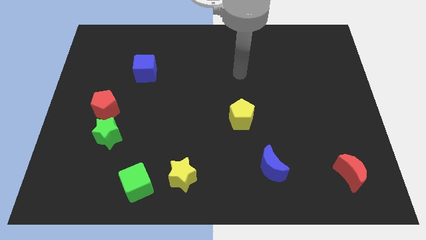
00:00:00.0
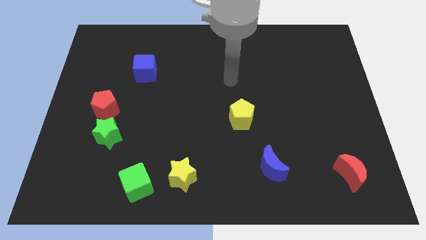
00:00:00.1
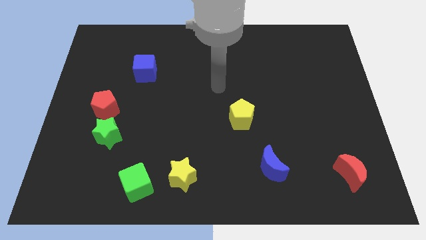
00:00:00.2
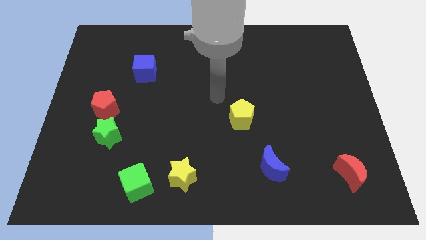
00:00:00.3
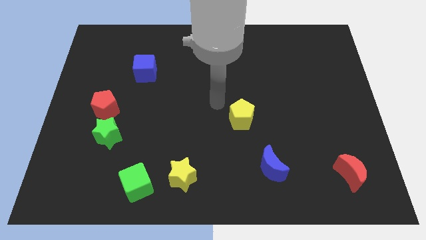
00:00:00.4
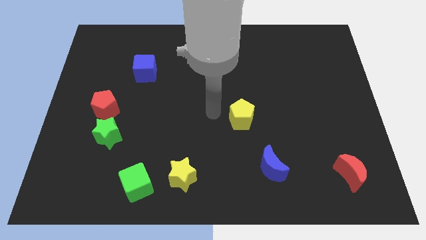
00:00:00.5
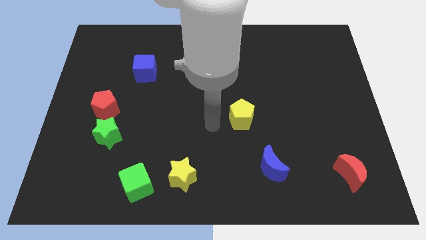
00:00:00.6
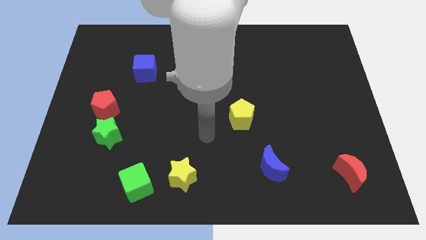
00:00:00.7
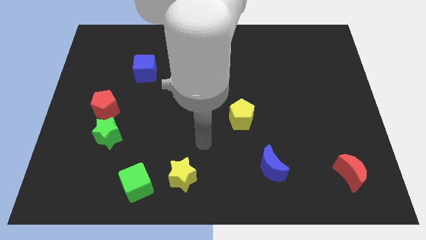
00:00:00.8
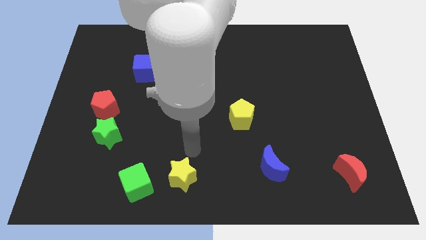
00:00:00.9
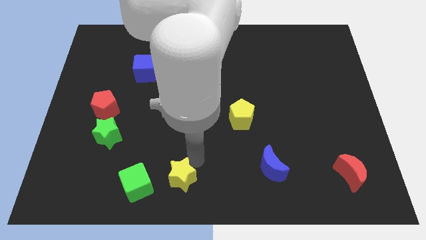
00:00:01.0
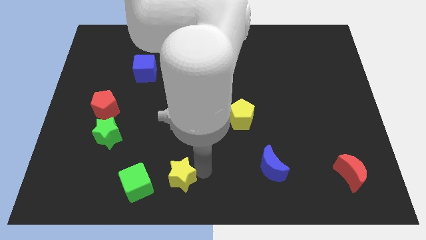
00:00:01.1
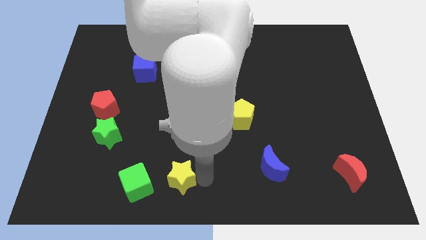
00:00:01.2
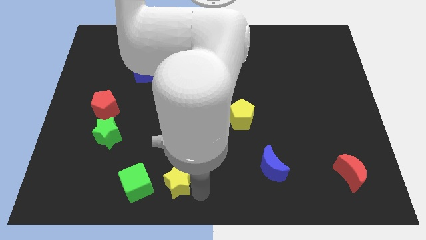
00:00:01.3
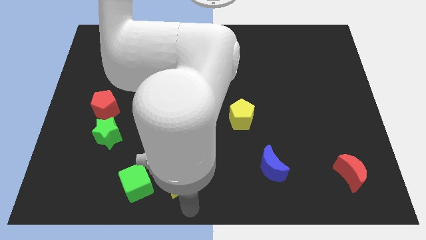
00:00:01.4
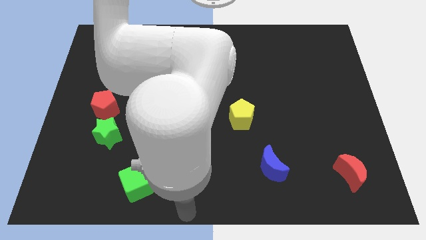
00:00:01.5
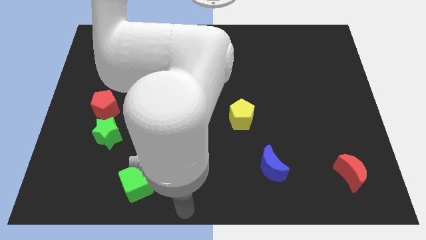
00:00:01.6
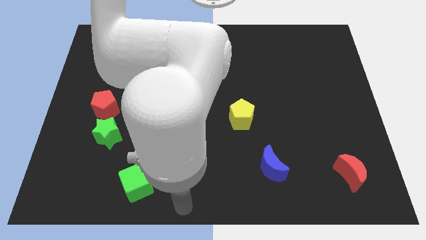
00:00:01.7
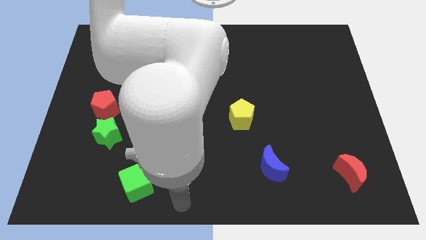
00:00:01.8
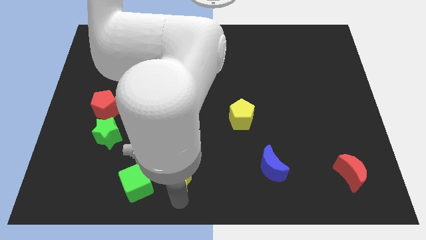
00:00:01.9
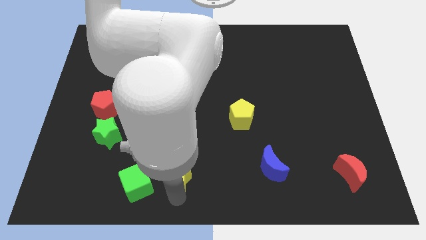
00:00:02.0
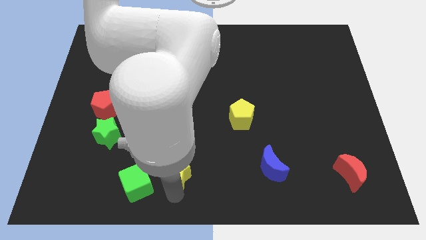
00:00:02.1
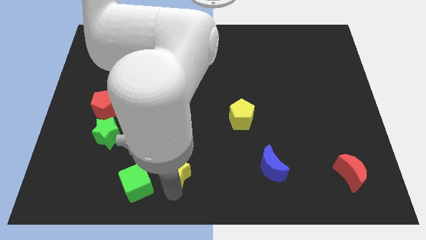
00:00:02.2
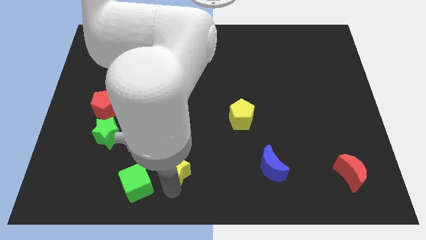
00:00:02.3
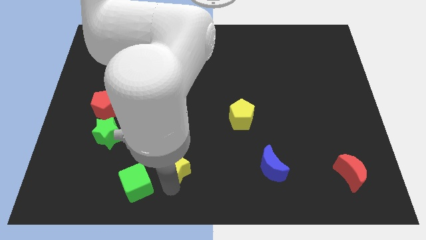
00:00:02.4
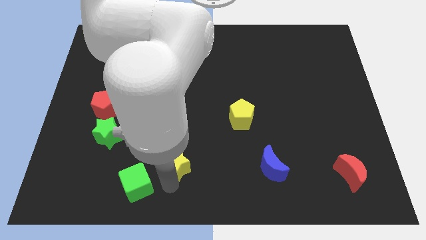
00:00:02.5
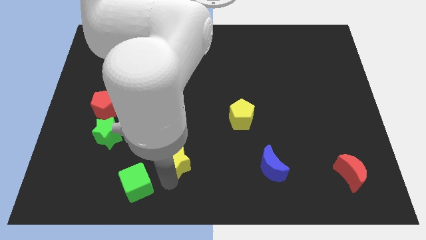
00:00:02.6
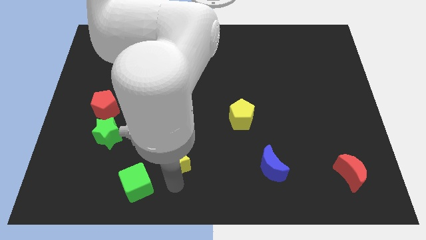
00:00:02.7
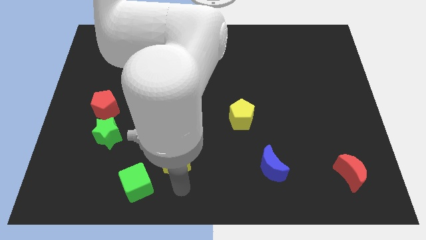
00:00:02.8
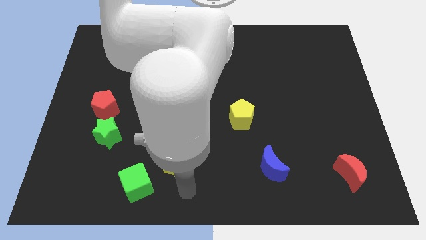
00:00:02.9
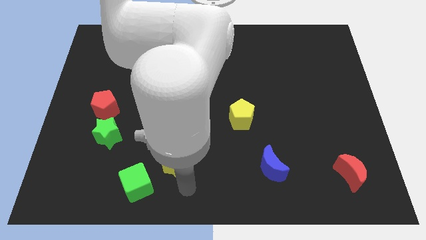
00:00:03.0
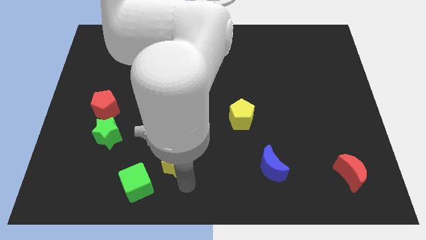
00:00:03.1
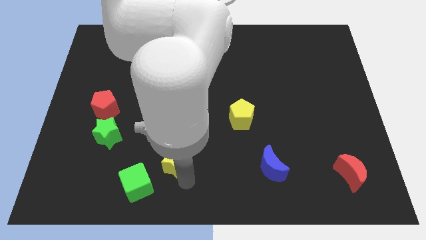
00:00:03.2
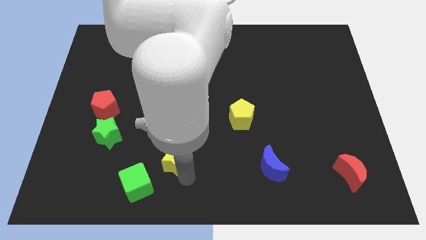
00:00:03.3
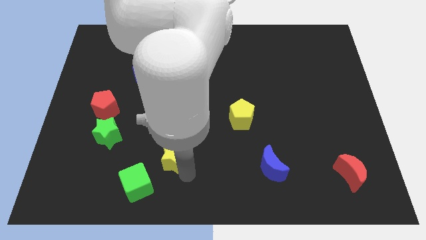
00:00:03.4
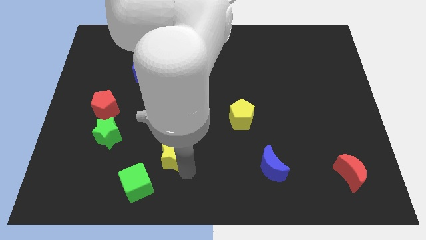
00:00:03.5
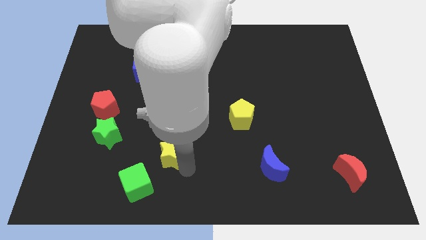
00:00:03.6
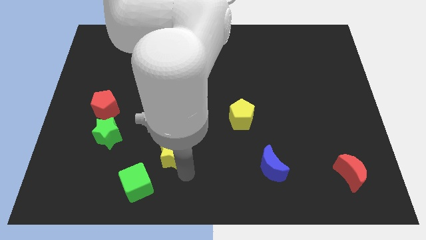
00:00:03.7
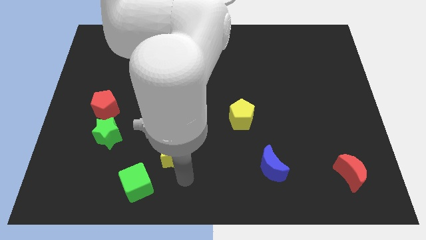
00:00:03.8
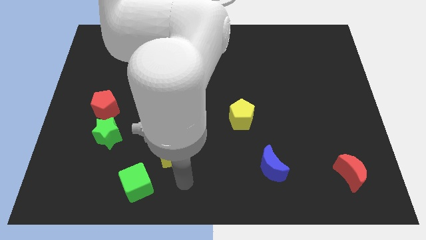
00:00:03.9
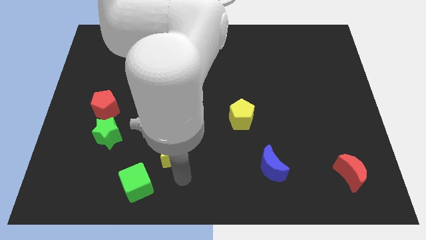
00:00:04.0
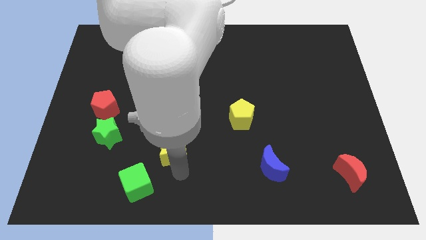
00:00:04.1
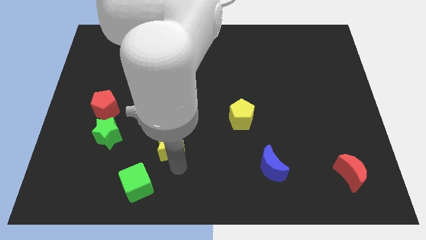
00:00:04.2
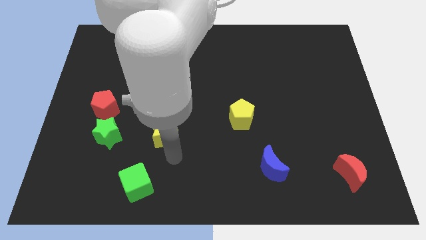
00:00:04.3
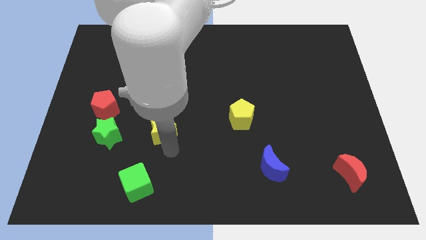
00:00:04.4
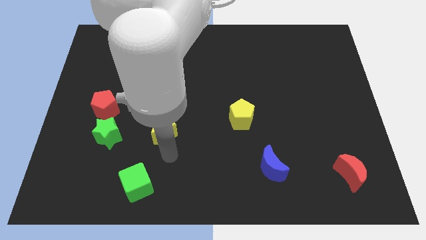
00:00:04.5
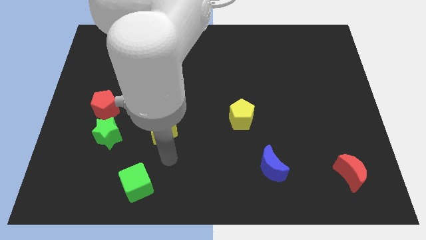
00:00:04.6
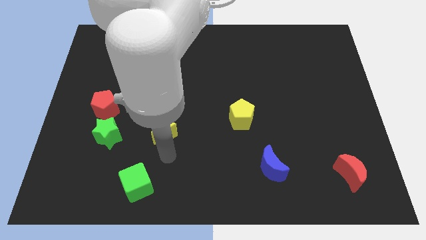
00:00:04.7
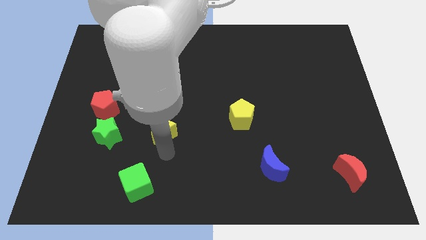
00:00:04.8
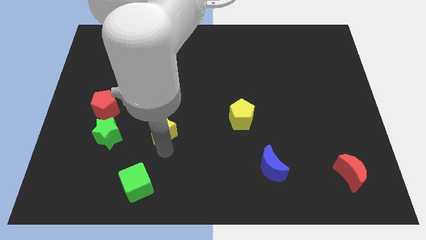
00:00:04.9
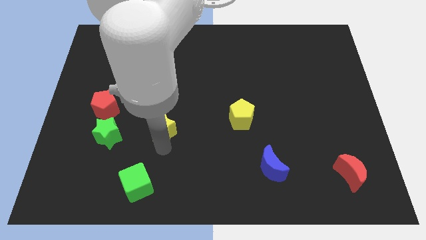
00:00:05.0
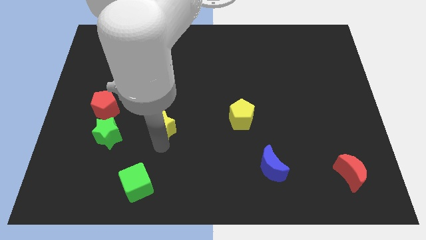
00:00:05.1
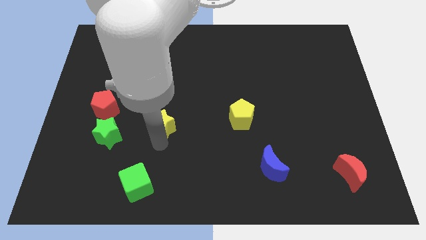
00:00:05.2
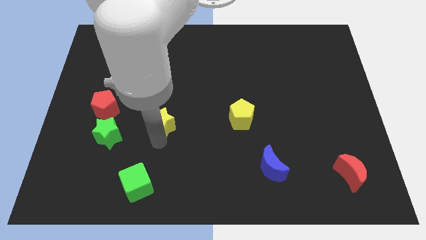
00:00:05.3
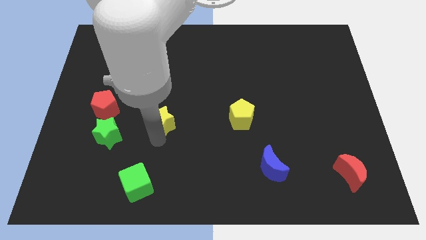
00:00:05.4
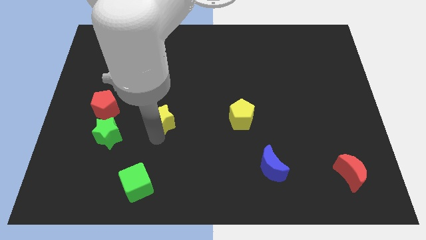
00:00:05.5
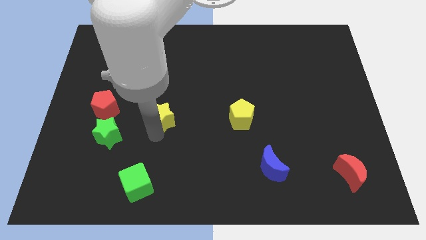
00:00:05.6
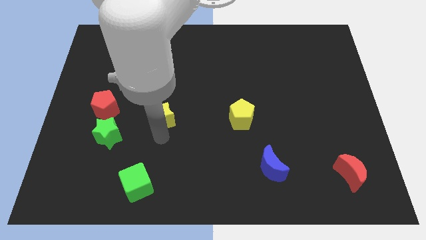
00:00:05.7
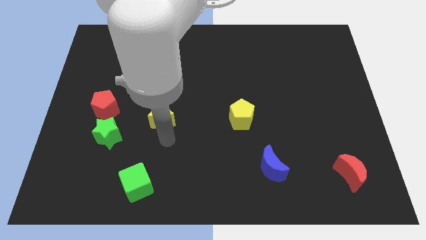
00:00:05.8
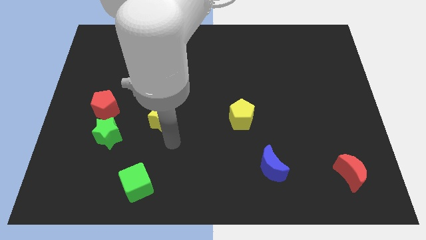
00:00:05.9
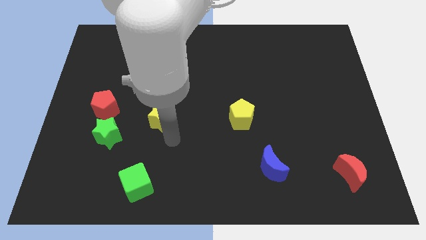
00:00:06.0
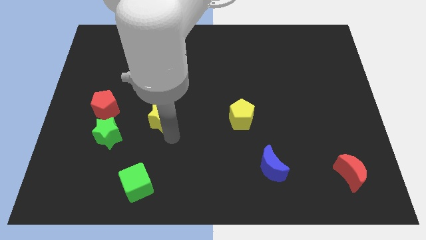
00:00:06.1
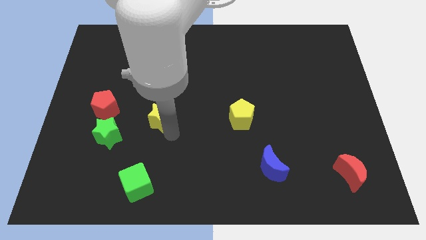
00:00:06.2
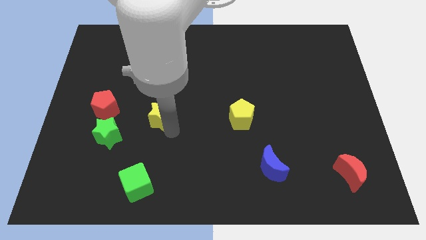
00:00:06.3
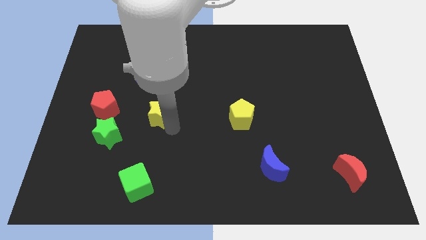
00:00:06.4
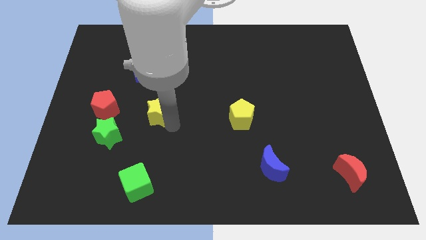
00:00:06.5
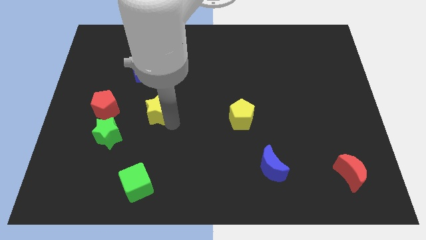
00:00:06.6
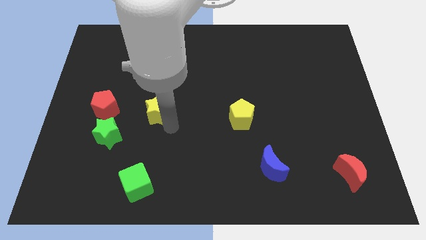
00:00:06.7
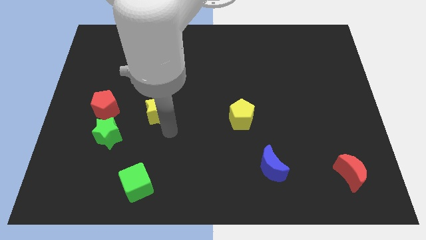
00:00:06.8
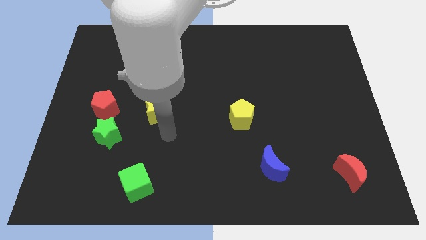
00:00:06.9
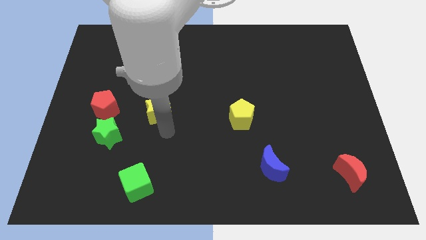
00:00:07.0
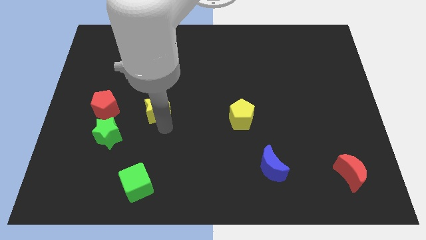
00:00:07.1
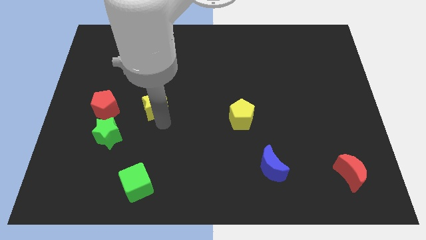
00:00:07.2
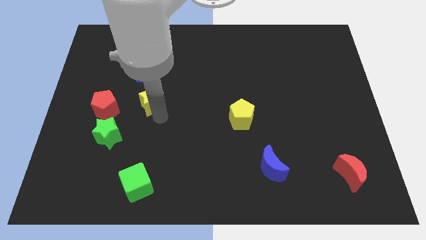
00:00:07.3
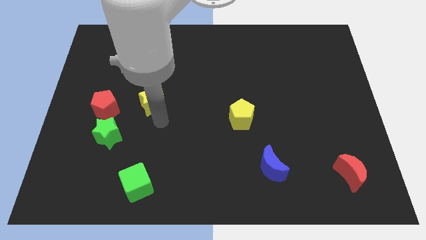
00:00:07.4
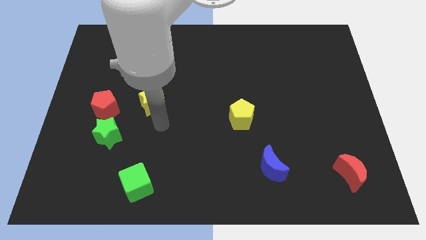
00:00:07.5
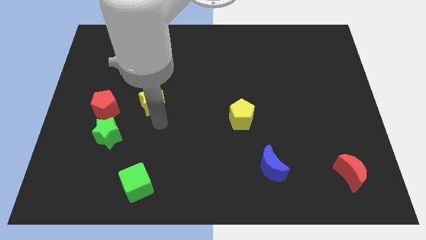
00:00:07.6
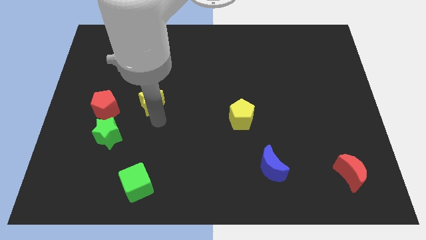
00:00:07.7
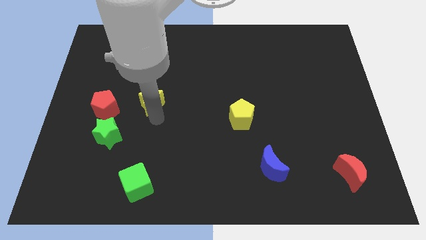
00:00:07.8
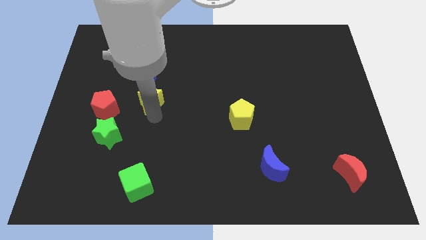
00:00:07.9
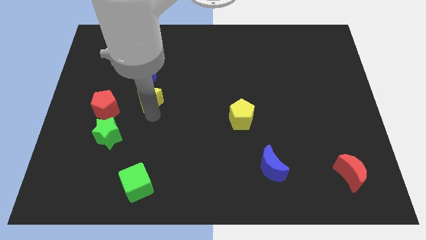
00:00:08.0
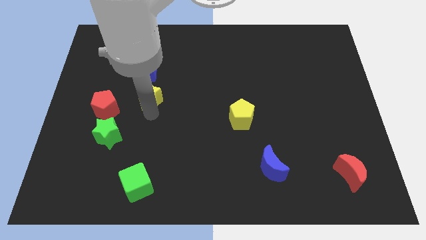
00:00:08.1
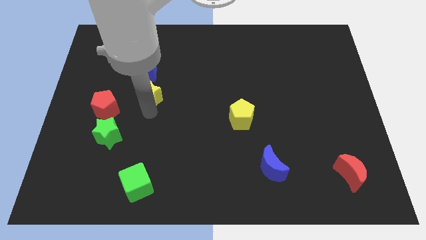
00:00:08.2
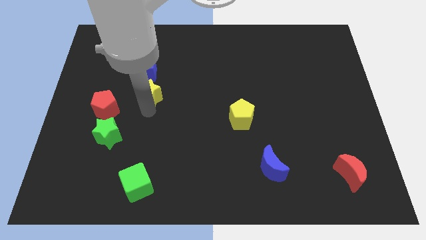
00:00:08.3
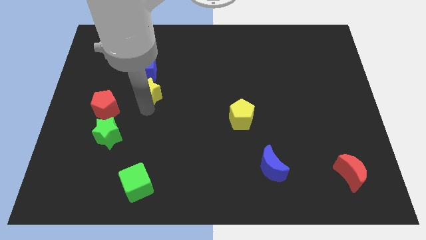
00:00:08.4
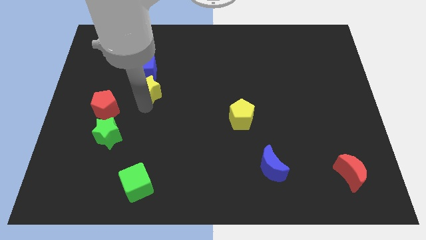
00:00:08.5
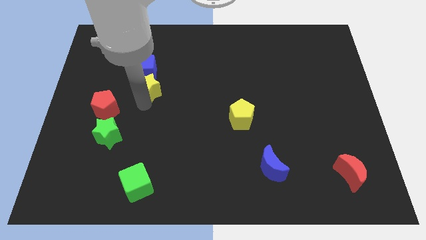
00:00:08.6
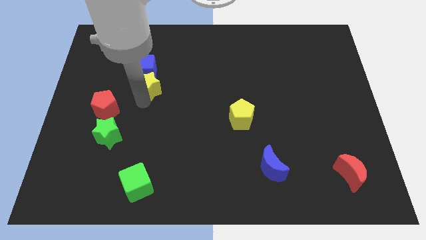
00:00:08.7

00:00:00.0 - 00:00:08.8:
slide the yellow star next to the blue cube
